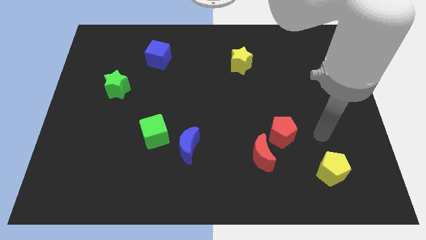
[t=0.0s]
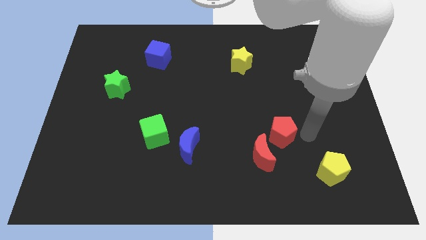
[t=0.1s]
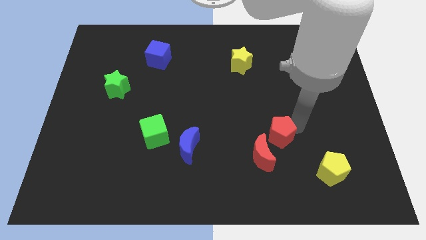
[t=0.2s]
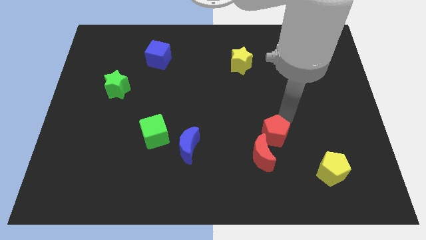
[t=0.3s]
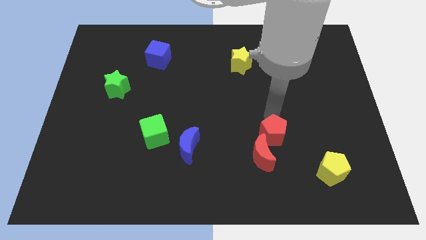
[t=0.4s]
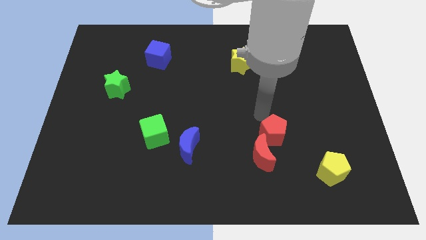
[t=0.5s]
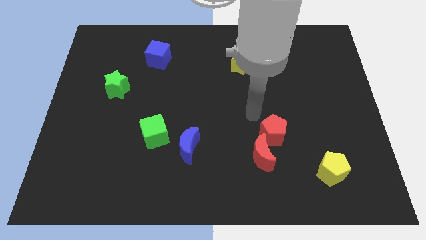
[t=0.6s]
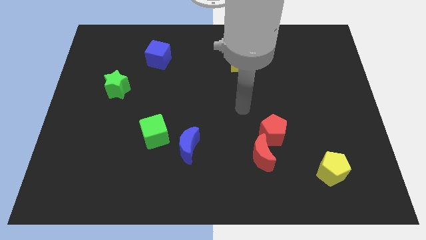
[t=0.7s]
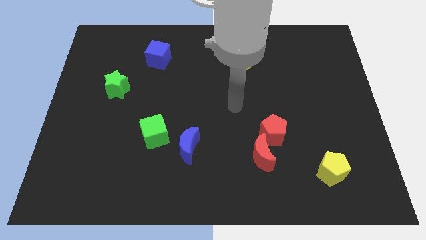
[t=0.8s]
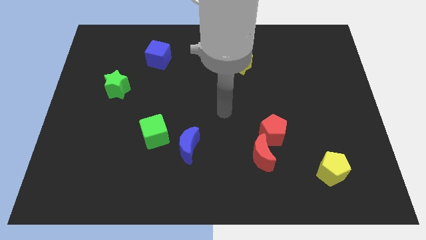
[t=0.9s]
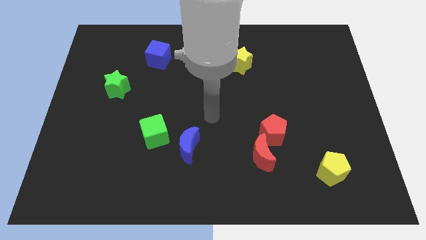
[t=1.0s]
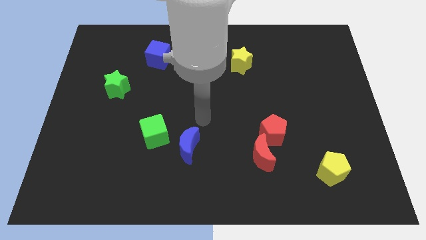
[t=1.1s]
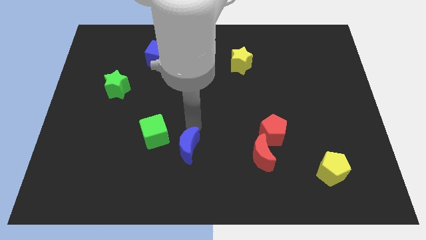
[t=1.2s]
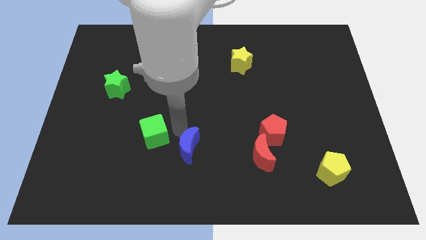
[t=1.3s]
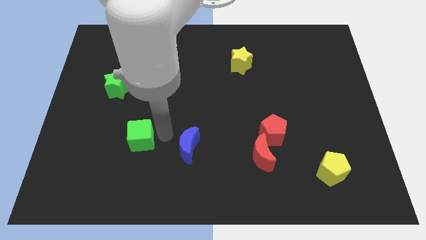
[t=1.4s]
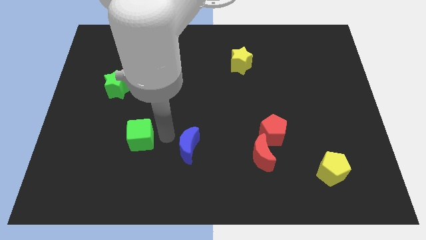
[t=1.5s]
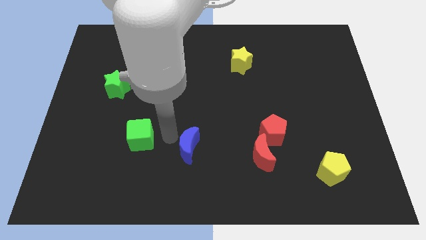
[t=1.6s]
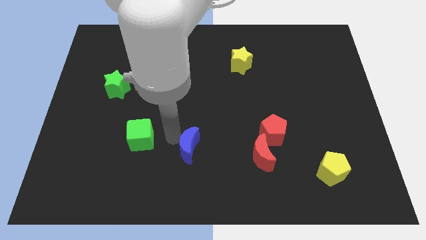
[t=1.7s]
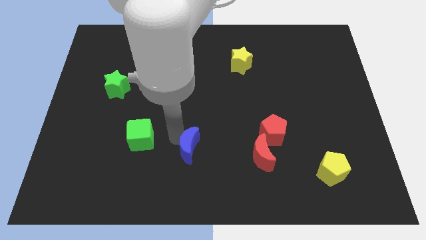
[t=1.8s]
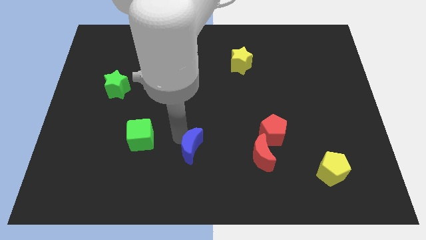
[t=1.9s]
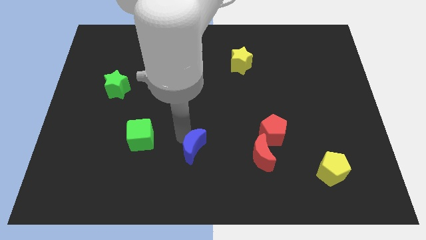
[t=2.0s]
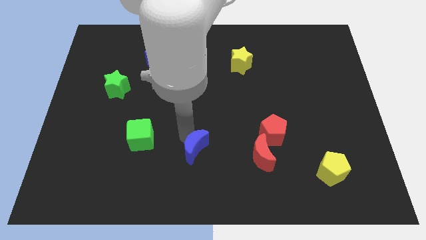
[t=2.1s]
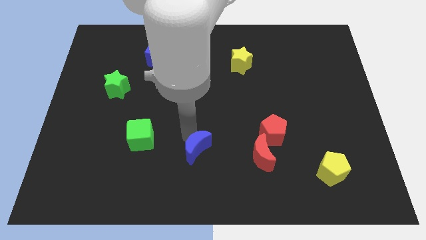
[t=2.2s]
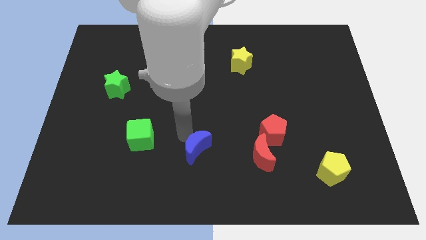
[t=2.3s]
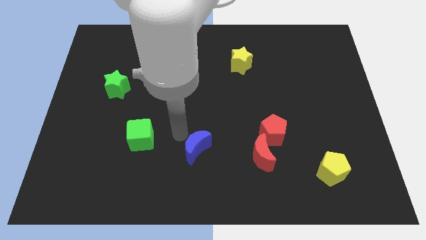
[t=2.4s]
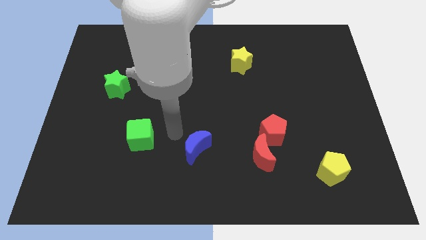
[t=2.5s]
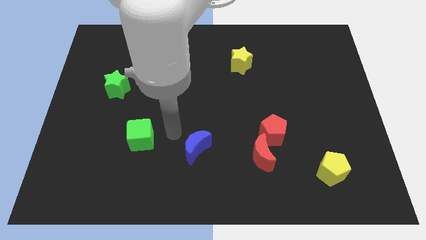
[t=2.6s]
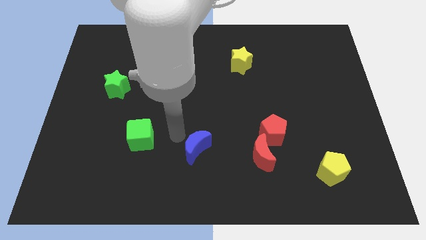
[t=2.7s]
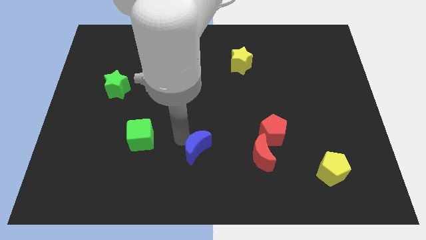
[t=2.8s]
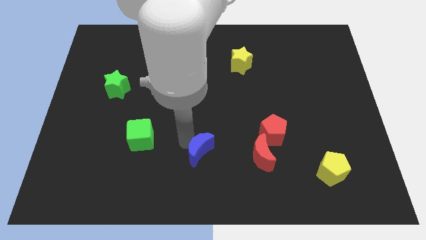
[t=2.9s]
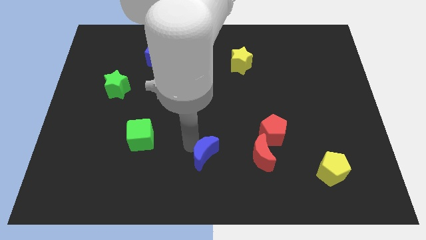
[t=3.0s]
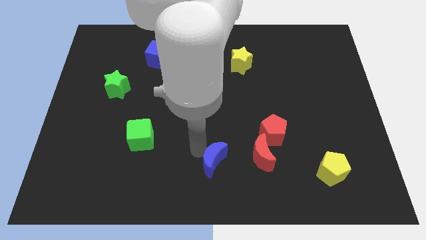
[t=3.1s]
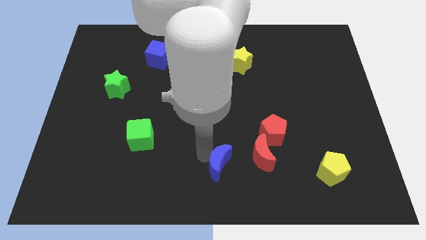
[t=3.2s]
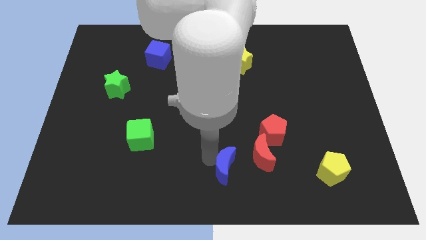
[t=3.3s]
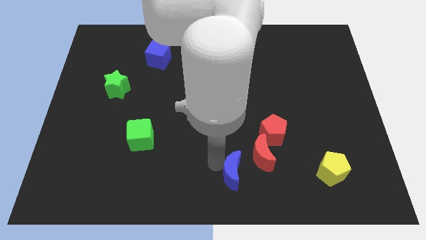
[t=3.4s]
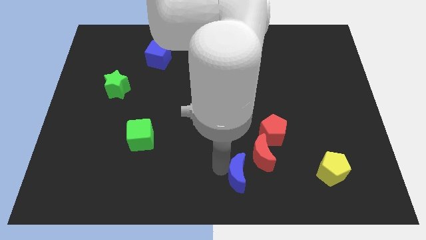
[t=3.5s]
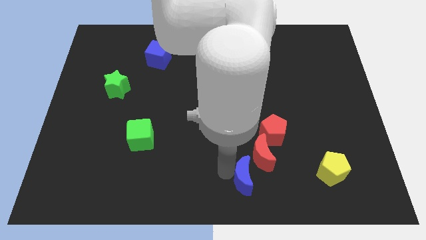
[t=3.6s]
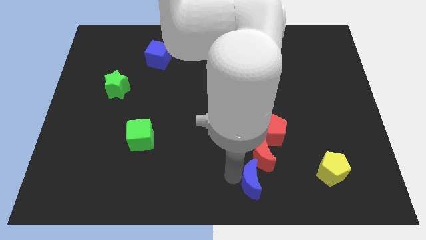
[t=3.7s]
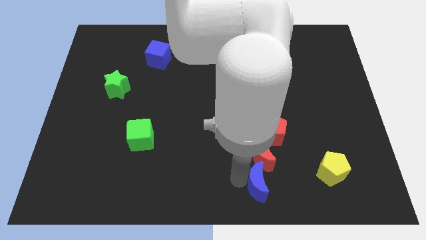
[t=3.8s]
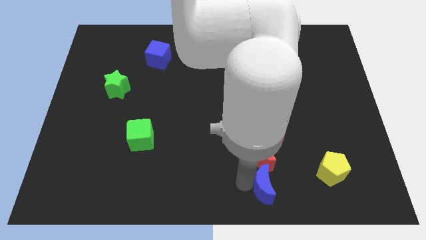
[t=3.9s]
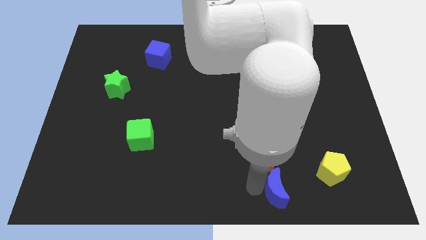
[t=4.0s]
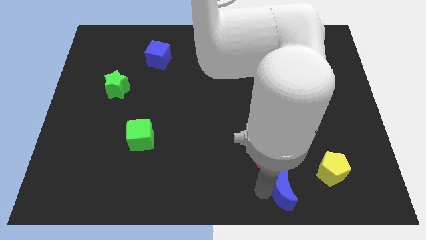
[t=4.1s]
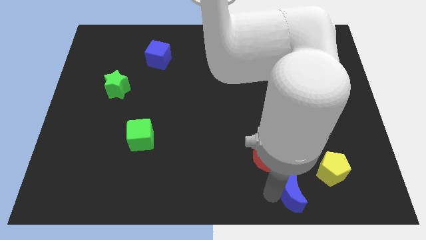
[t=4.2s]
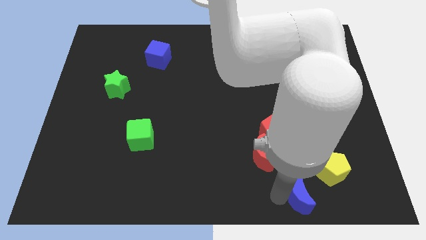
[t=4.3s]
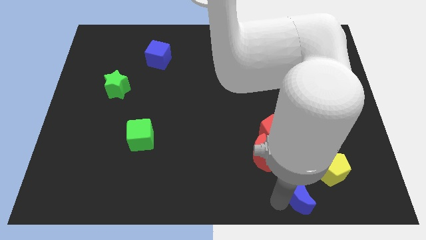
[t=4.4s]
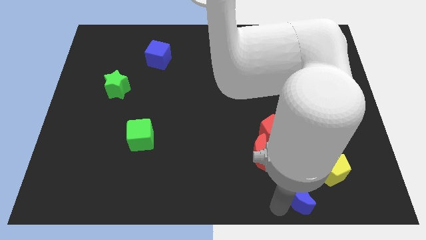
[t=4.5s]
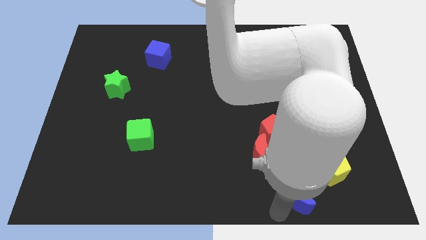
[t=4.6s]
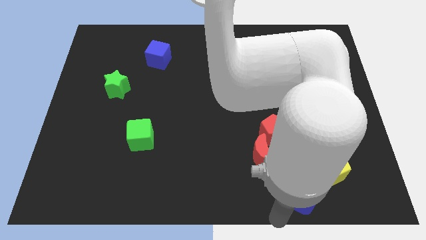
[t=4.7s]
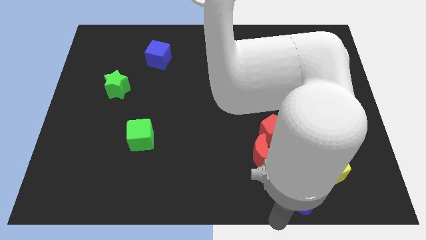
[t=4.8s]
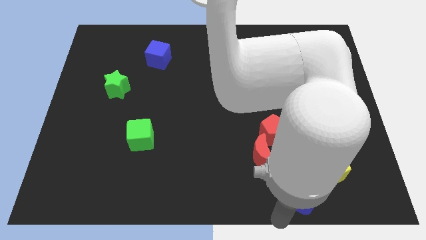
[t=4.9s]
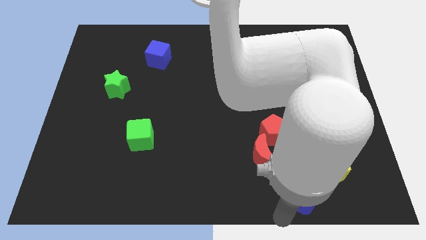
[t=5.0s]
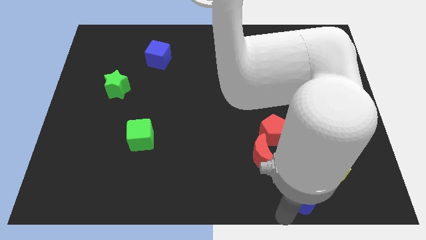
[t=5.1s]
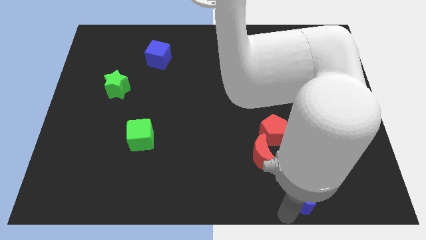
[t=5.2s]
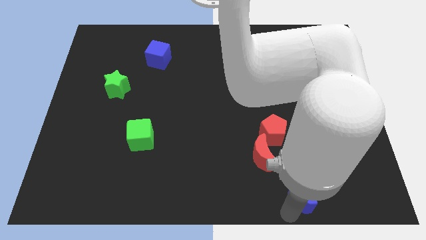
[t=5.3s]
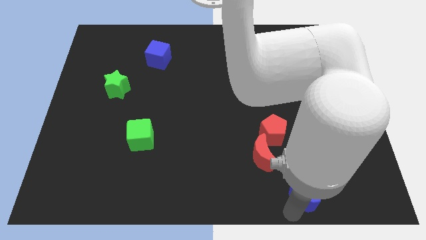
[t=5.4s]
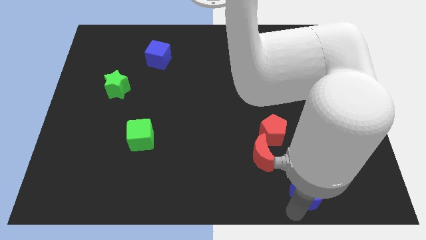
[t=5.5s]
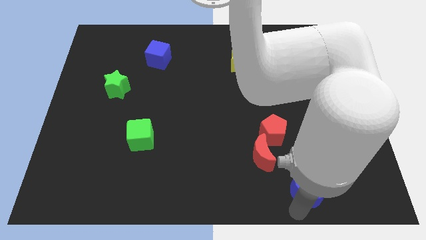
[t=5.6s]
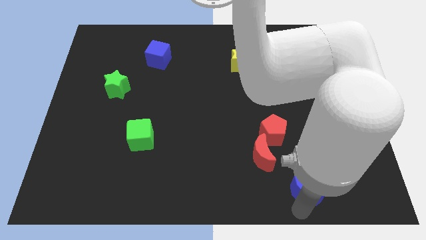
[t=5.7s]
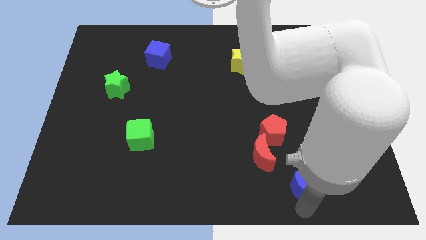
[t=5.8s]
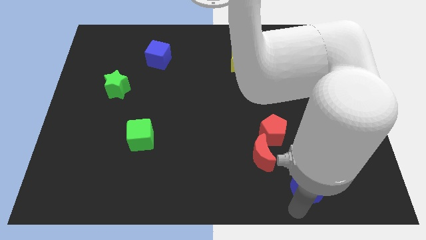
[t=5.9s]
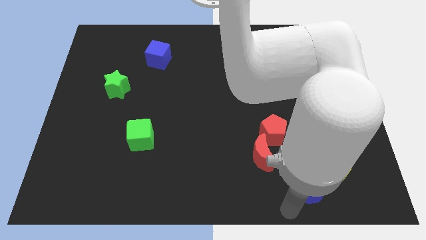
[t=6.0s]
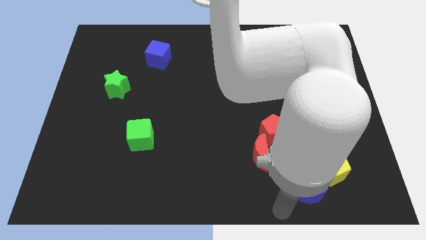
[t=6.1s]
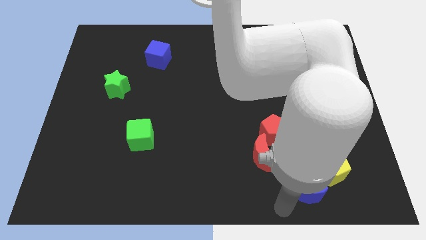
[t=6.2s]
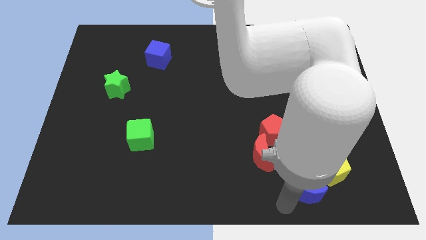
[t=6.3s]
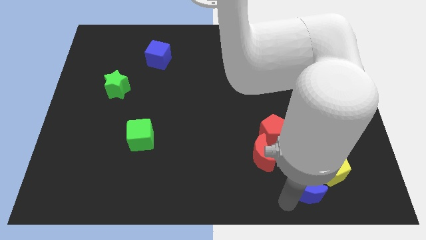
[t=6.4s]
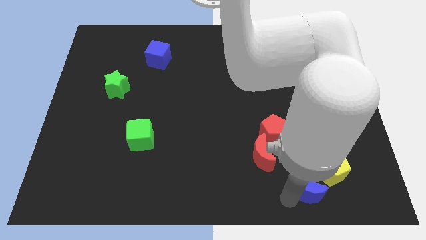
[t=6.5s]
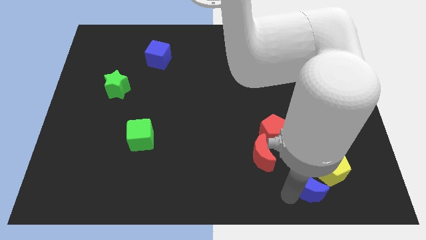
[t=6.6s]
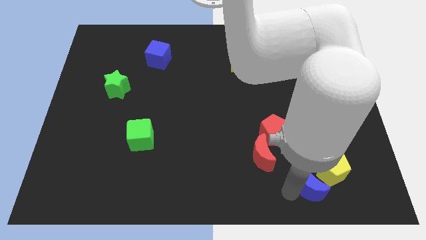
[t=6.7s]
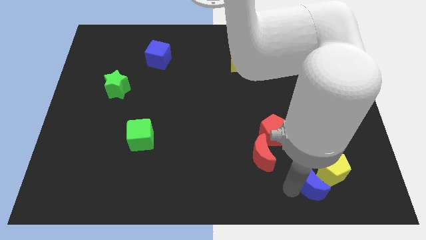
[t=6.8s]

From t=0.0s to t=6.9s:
move the blue moon close to the yellow pentagon

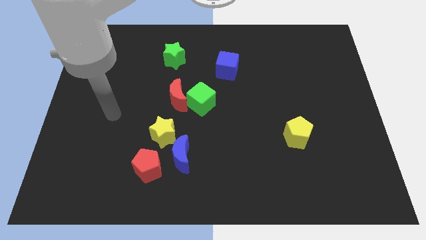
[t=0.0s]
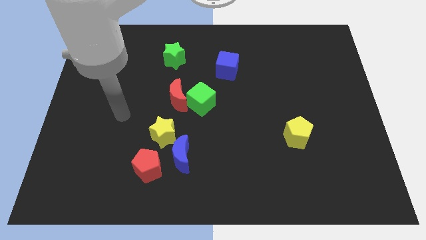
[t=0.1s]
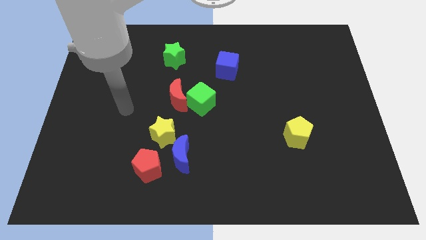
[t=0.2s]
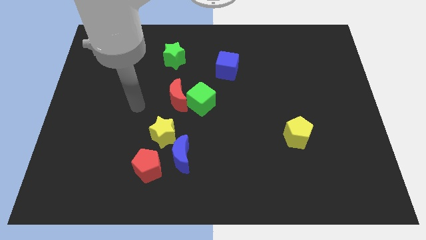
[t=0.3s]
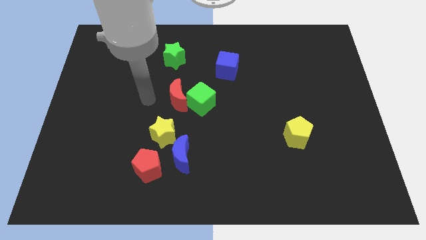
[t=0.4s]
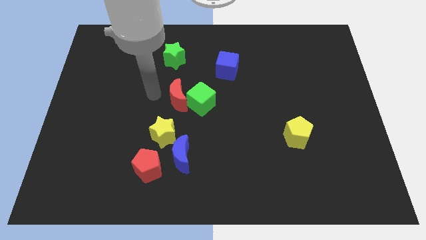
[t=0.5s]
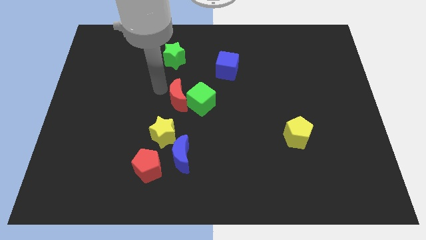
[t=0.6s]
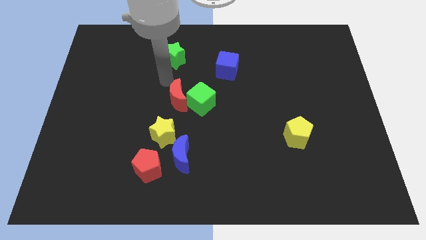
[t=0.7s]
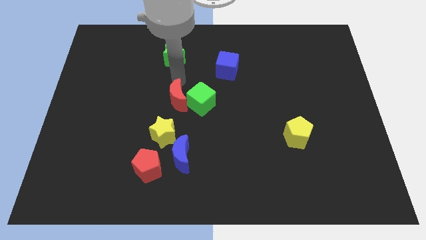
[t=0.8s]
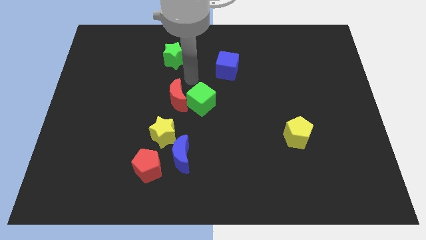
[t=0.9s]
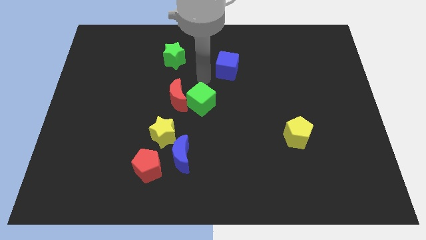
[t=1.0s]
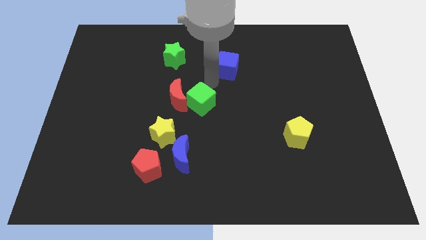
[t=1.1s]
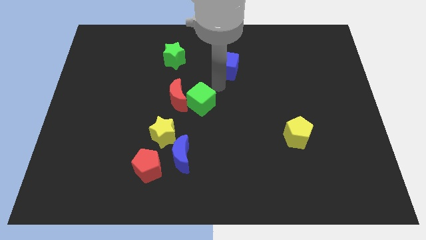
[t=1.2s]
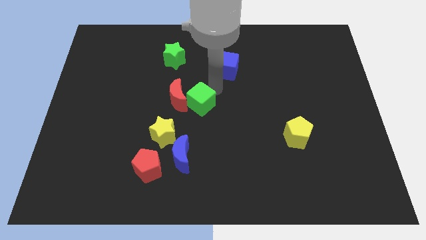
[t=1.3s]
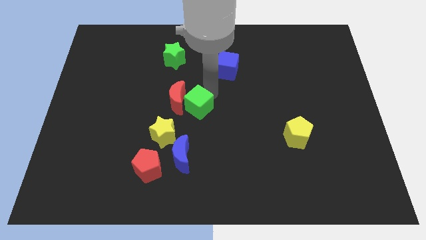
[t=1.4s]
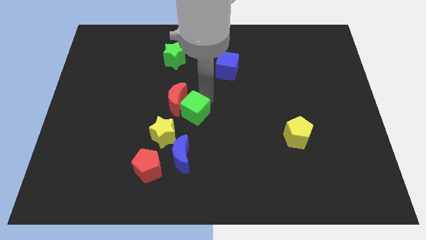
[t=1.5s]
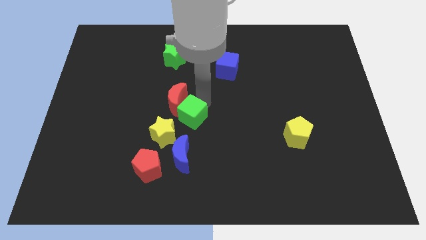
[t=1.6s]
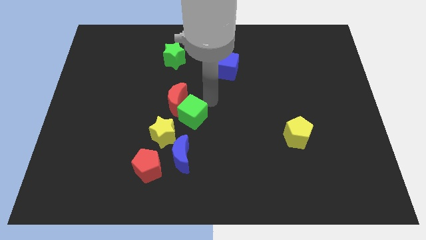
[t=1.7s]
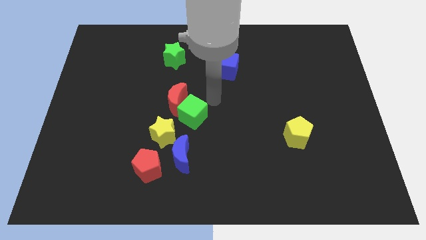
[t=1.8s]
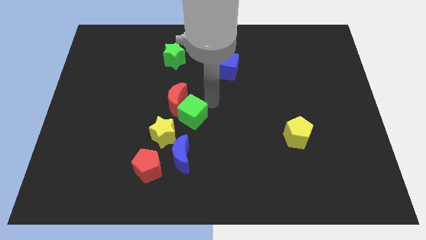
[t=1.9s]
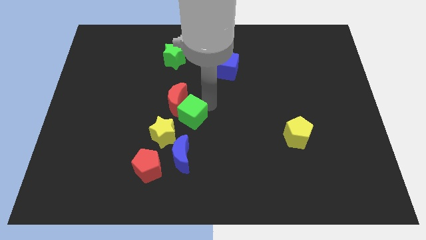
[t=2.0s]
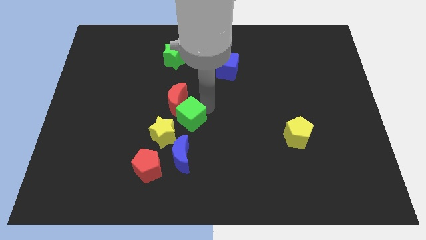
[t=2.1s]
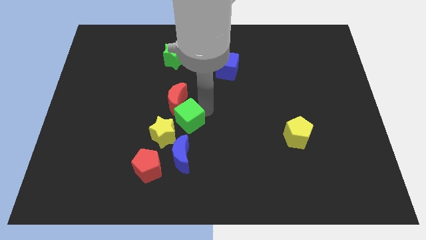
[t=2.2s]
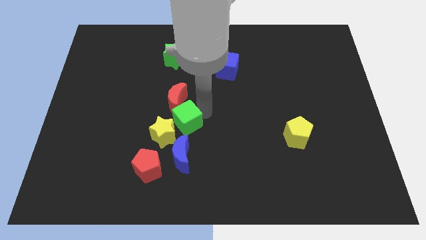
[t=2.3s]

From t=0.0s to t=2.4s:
push the green cube close to the yellow star
